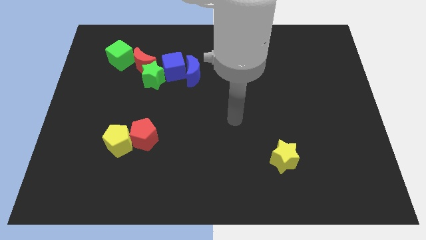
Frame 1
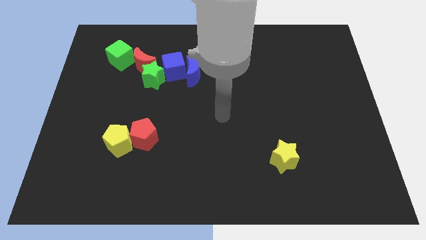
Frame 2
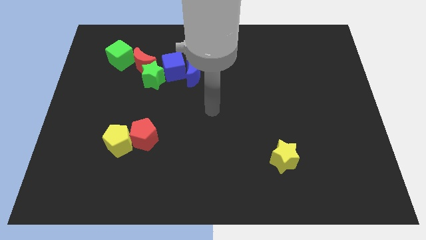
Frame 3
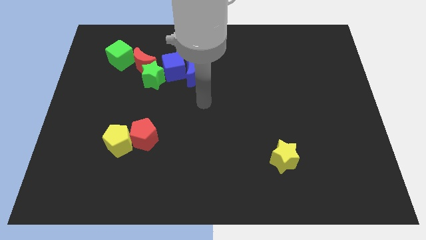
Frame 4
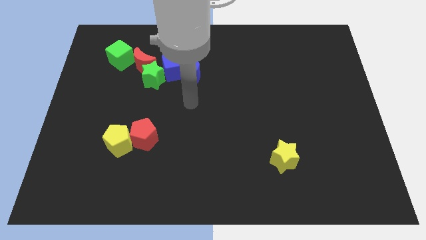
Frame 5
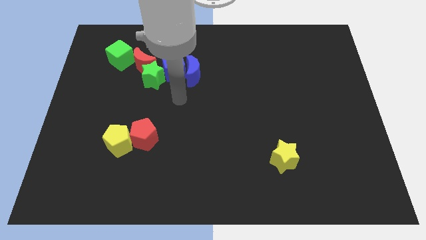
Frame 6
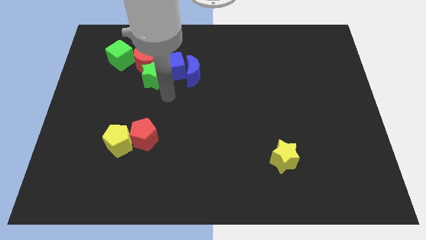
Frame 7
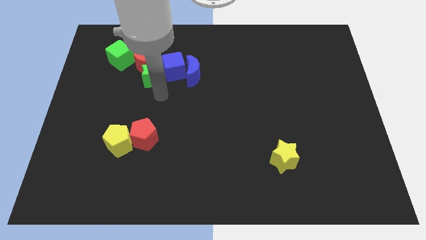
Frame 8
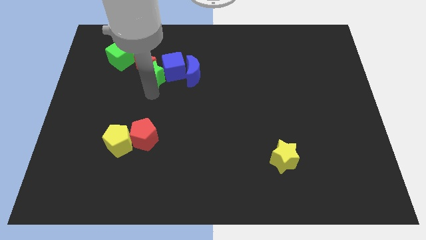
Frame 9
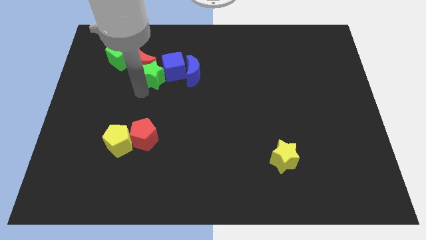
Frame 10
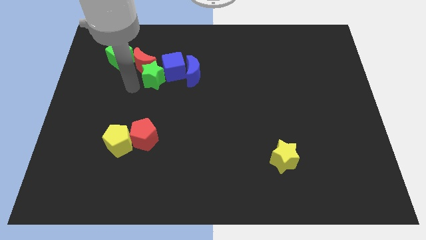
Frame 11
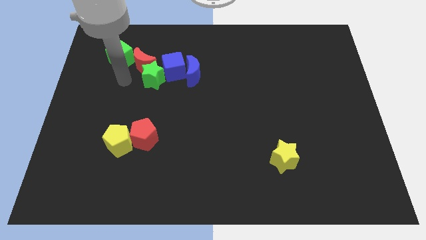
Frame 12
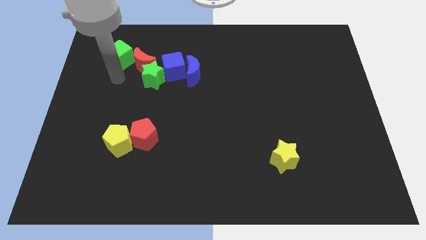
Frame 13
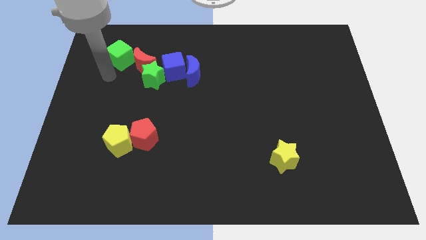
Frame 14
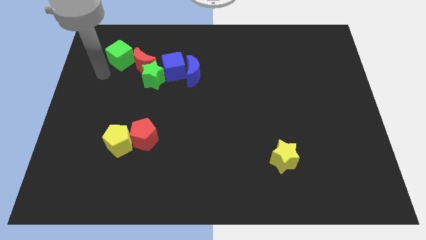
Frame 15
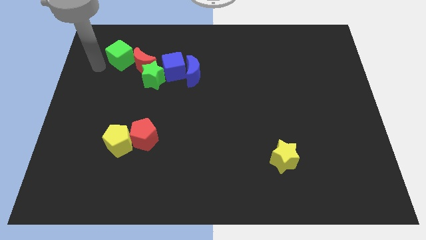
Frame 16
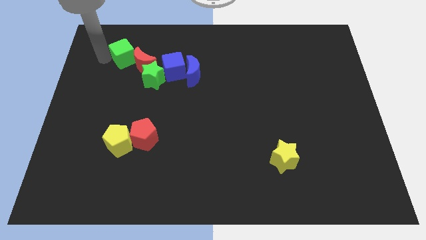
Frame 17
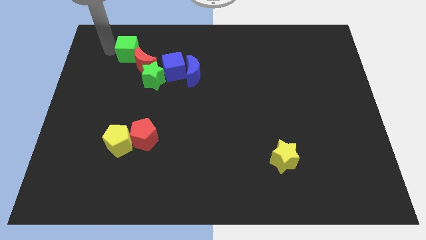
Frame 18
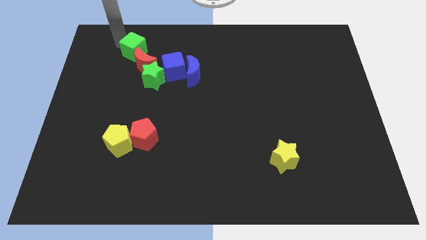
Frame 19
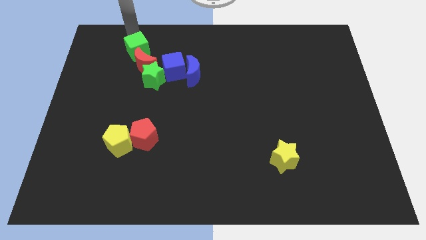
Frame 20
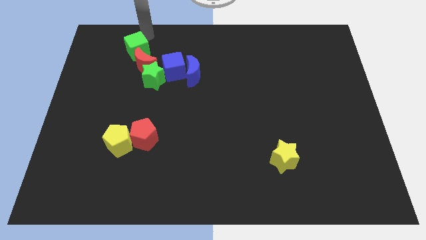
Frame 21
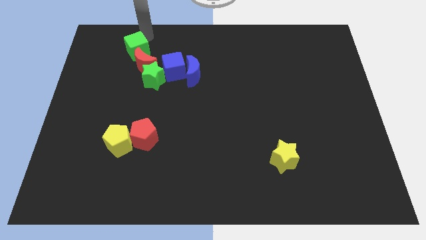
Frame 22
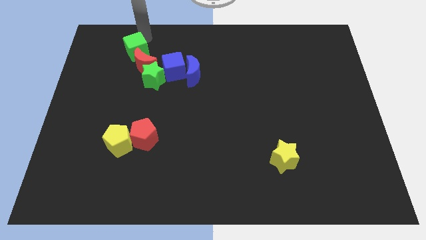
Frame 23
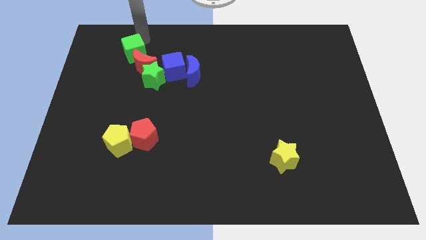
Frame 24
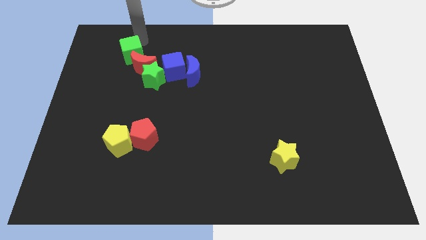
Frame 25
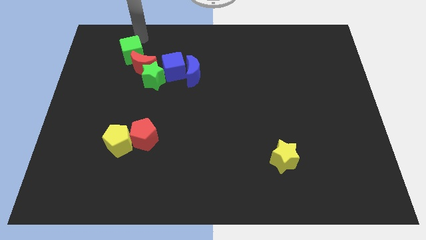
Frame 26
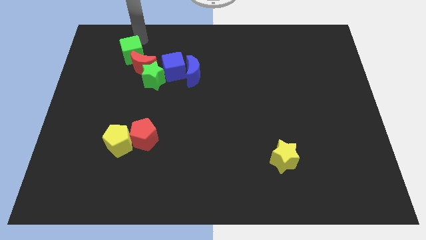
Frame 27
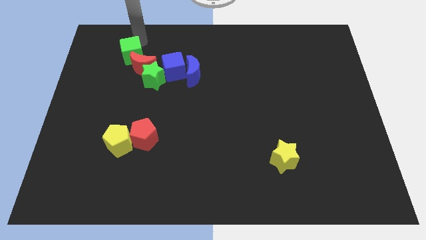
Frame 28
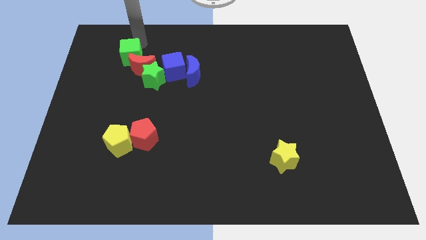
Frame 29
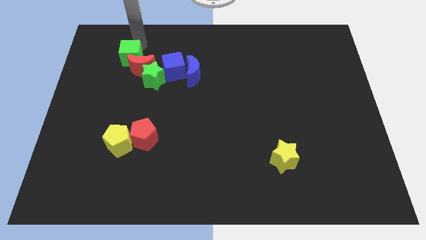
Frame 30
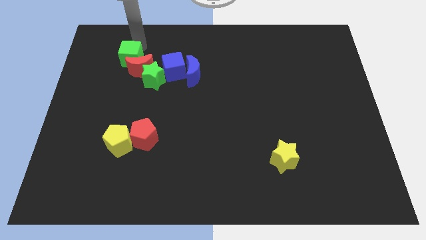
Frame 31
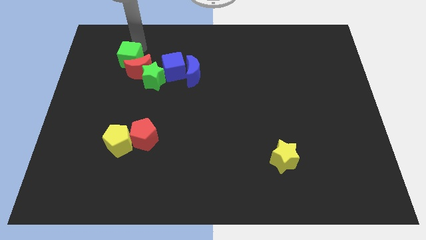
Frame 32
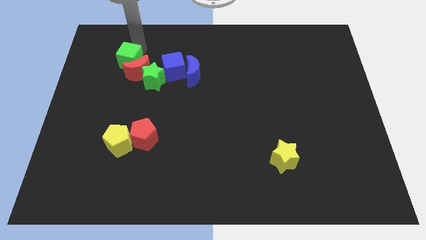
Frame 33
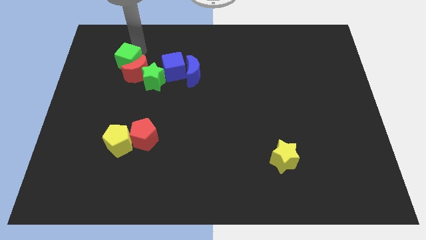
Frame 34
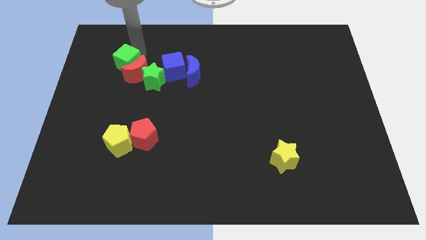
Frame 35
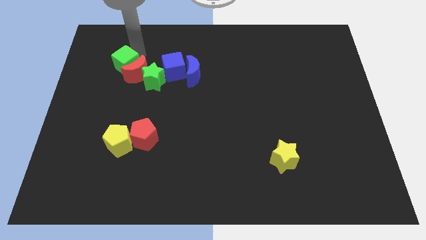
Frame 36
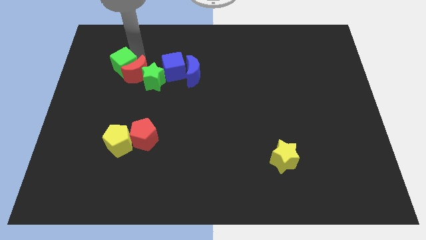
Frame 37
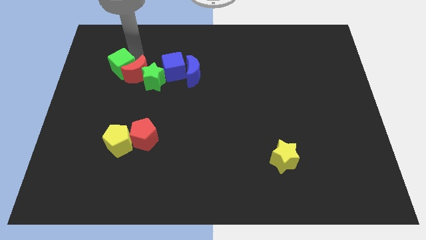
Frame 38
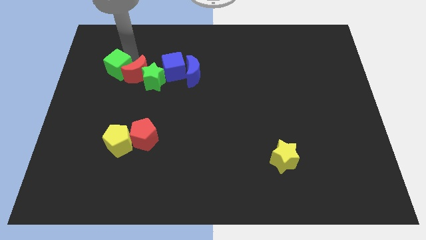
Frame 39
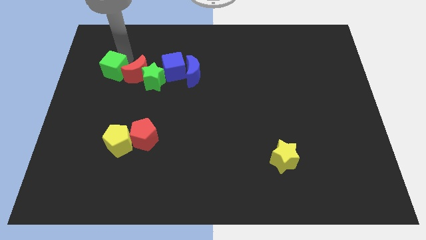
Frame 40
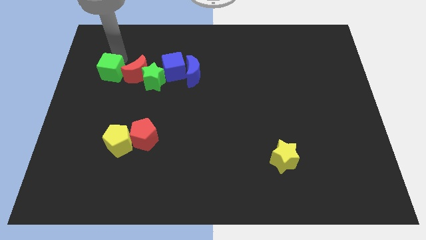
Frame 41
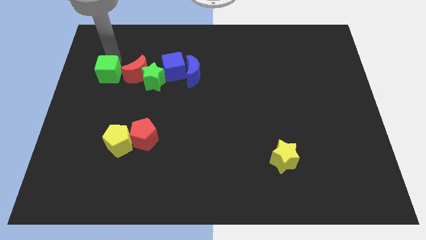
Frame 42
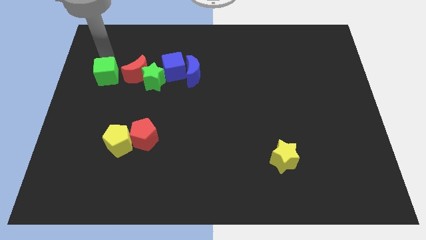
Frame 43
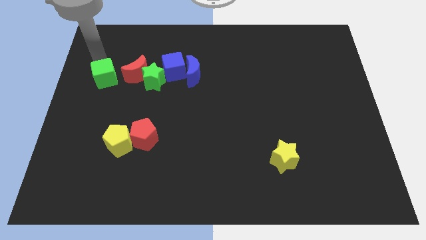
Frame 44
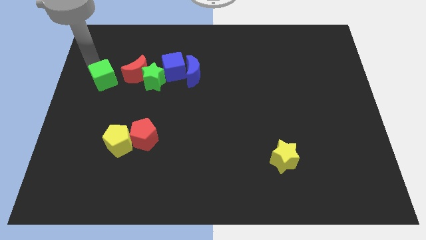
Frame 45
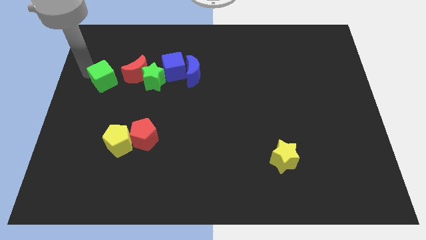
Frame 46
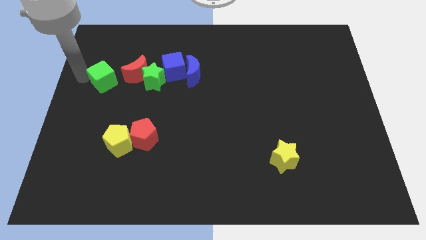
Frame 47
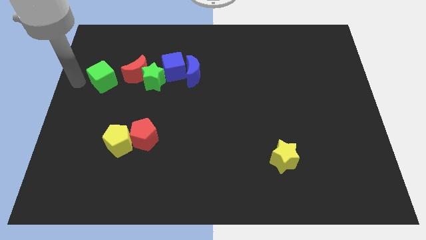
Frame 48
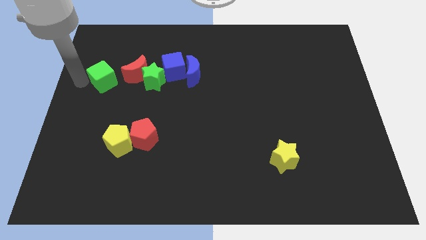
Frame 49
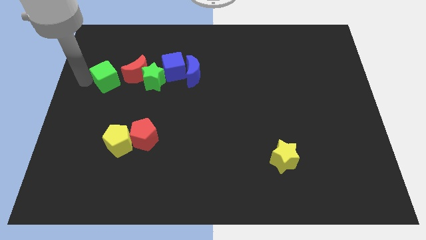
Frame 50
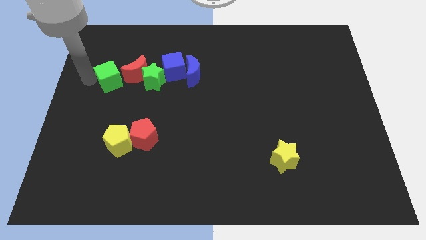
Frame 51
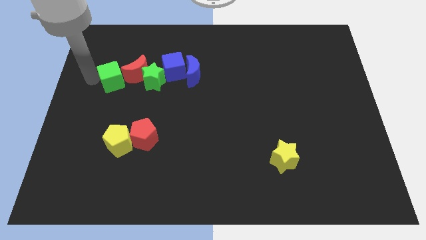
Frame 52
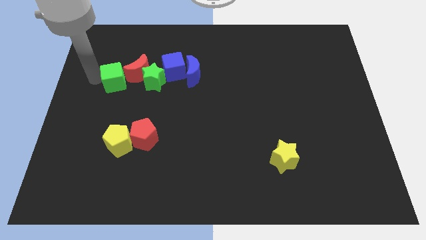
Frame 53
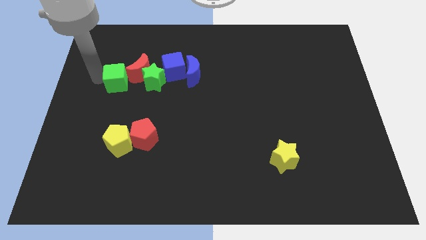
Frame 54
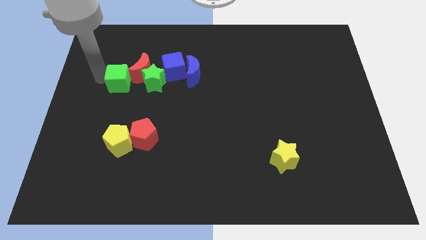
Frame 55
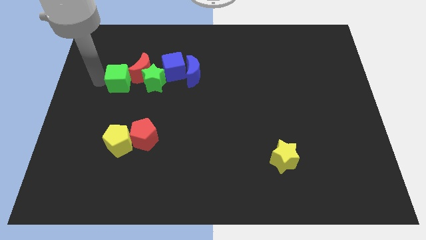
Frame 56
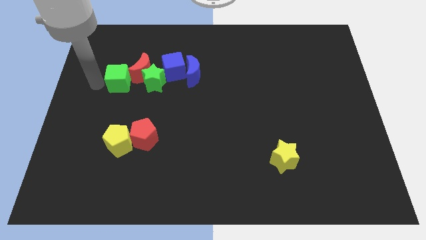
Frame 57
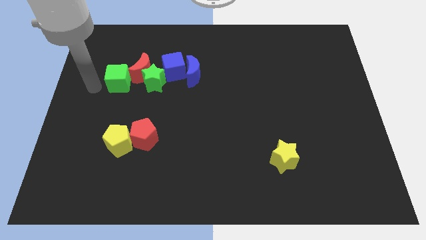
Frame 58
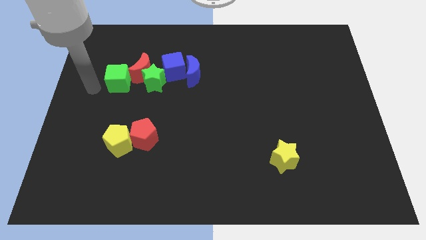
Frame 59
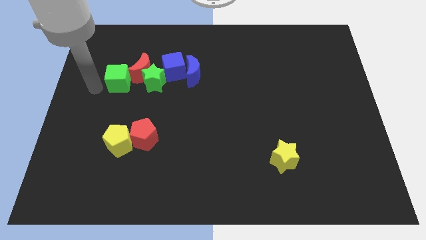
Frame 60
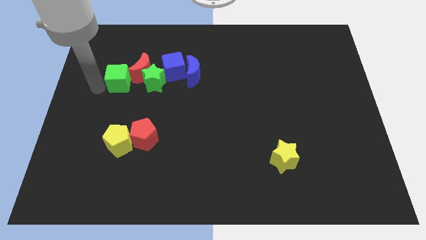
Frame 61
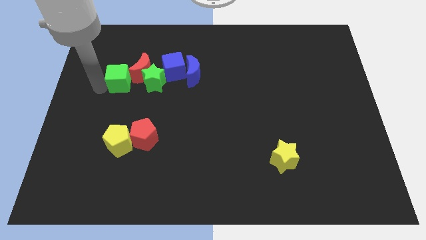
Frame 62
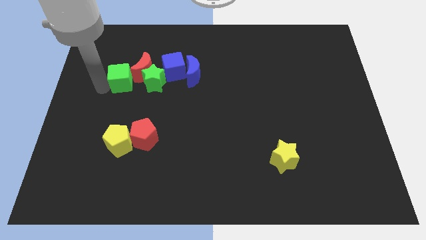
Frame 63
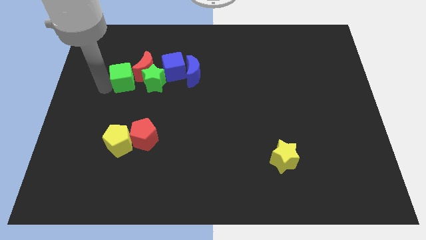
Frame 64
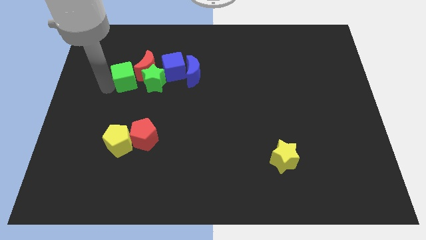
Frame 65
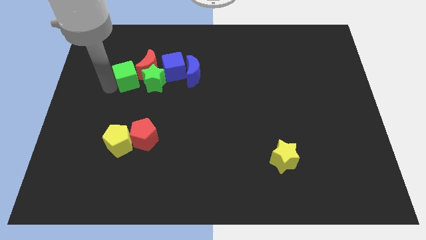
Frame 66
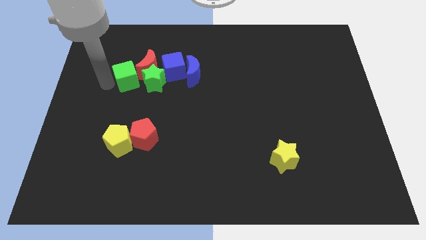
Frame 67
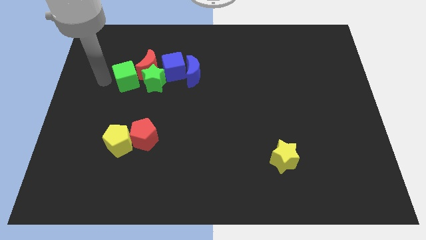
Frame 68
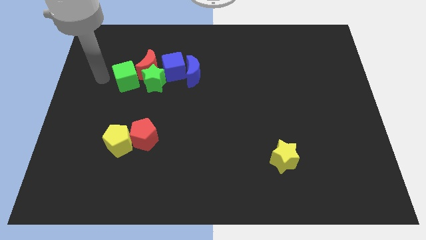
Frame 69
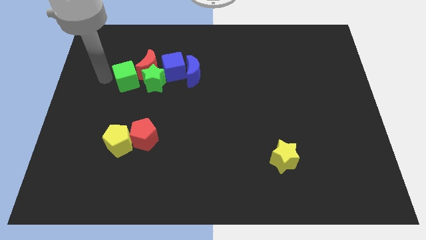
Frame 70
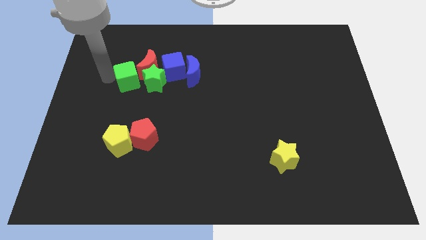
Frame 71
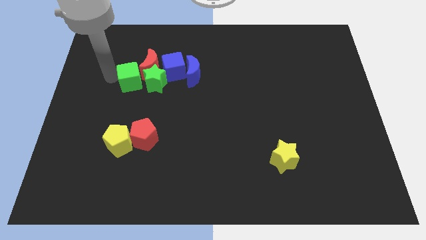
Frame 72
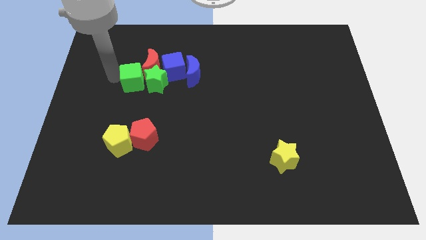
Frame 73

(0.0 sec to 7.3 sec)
put the green cube close to the green star
